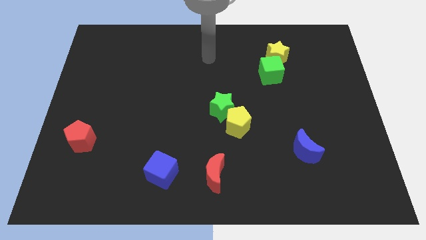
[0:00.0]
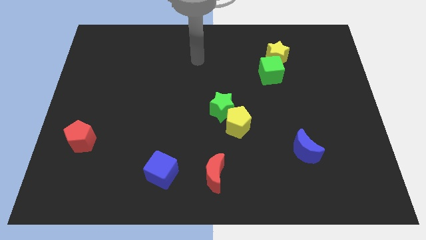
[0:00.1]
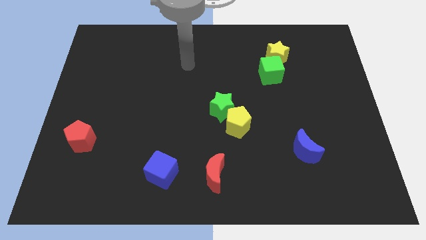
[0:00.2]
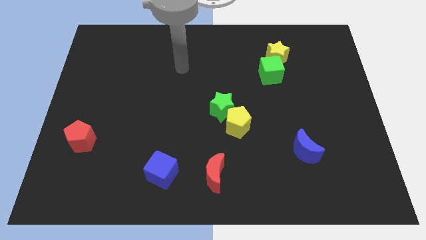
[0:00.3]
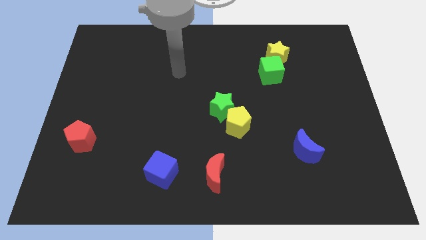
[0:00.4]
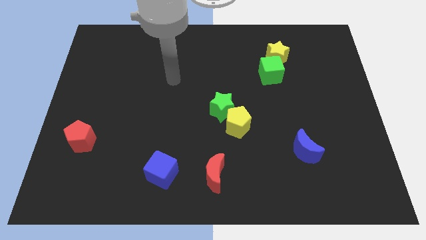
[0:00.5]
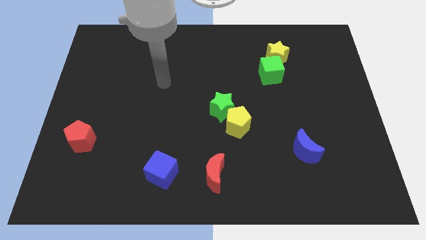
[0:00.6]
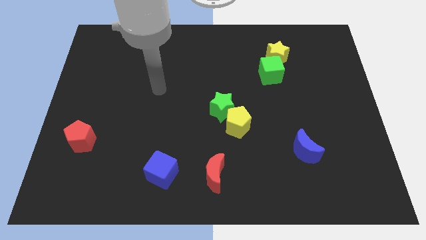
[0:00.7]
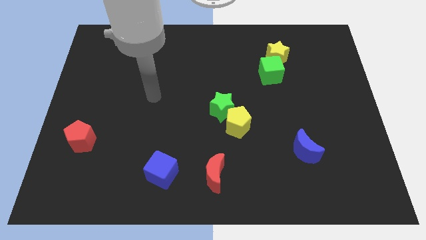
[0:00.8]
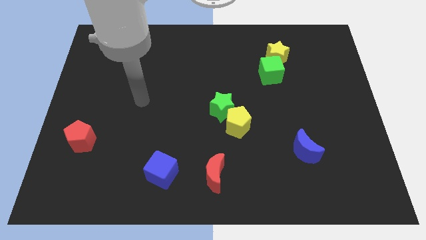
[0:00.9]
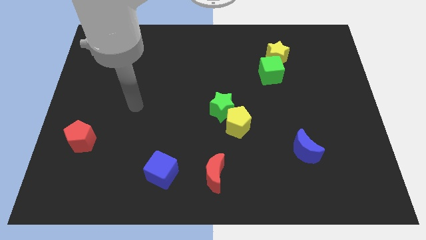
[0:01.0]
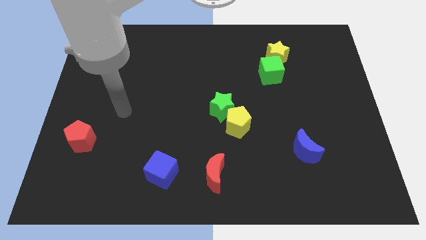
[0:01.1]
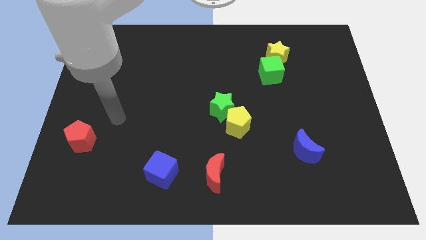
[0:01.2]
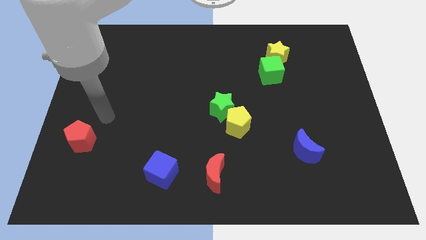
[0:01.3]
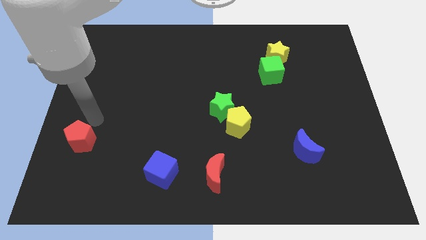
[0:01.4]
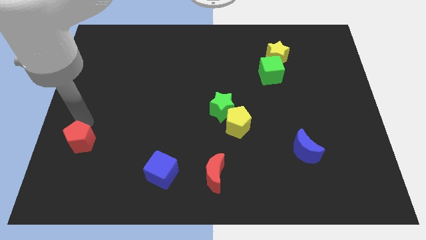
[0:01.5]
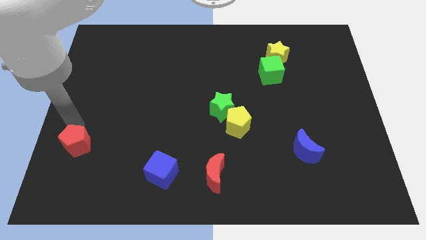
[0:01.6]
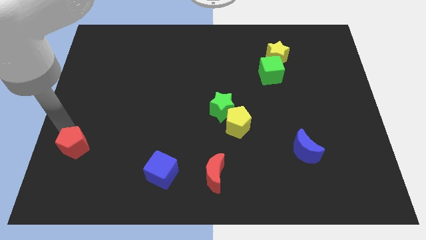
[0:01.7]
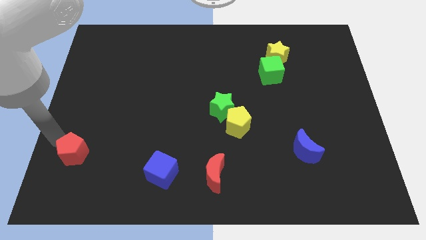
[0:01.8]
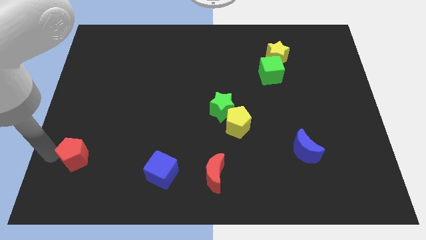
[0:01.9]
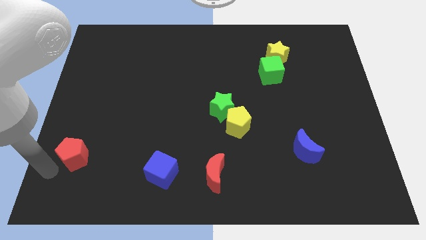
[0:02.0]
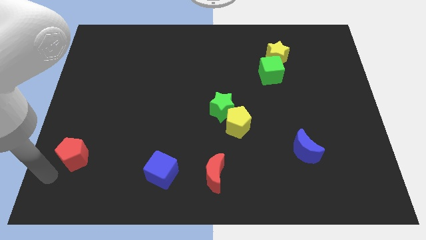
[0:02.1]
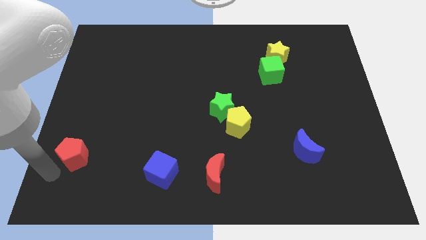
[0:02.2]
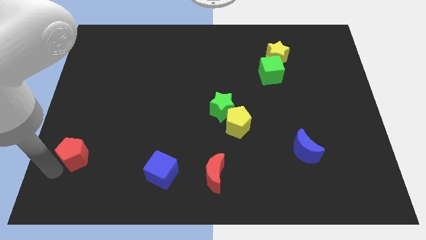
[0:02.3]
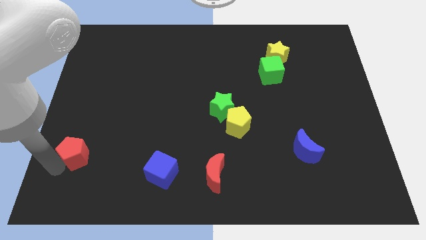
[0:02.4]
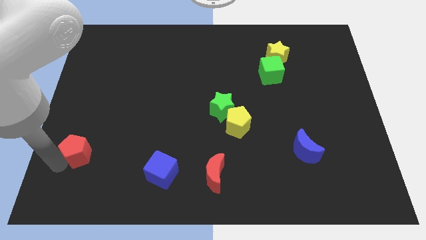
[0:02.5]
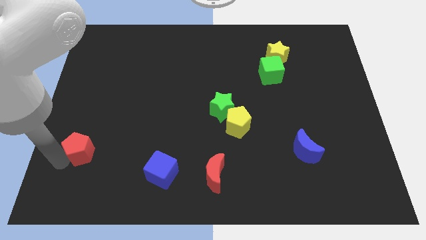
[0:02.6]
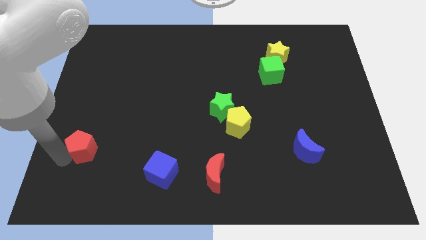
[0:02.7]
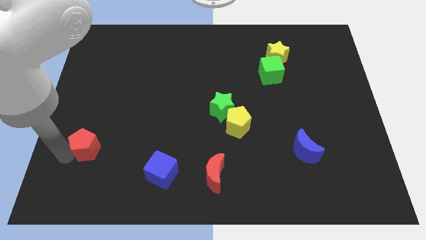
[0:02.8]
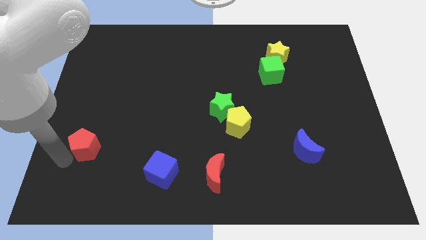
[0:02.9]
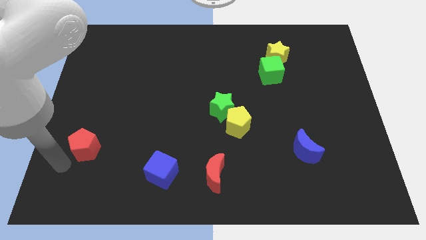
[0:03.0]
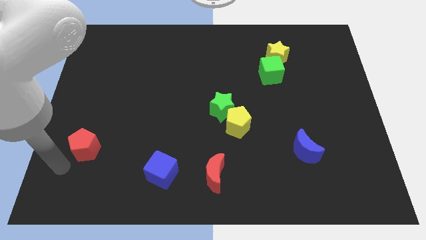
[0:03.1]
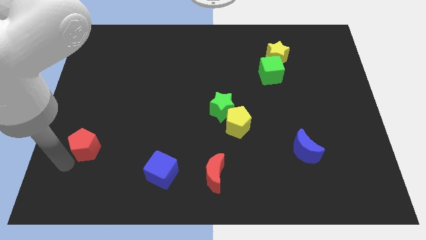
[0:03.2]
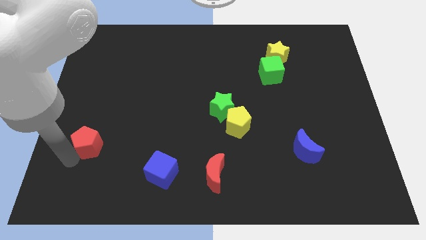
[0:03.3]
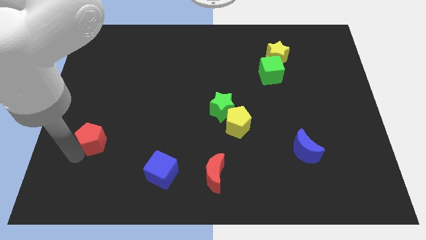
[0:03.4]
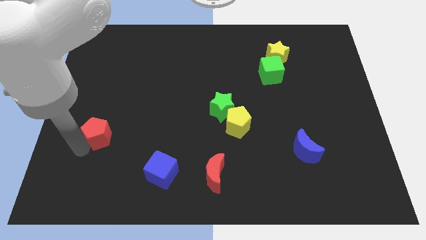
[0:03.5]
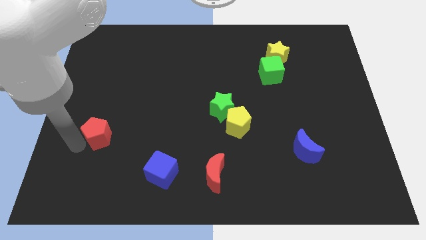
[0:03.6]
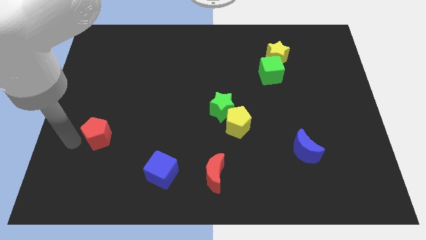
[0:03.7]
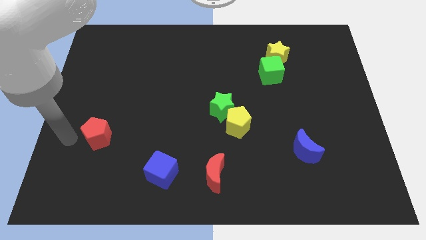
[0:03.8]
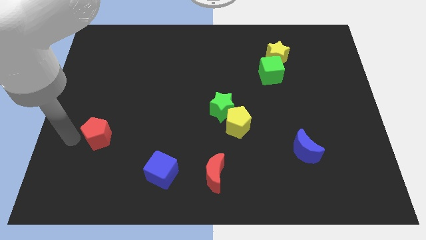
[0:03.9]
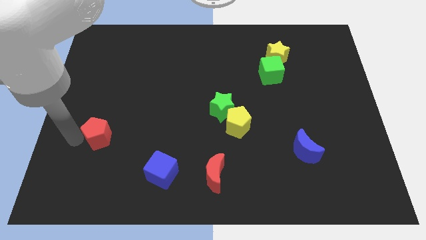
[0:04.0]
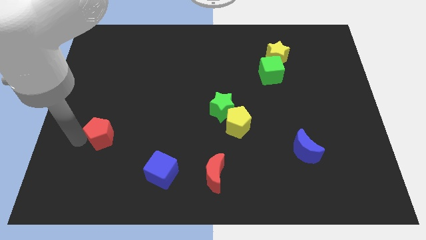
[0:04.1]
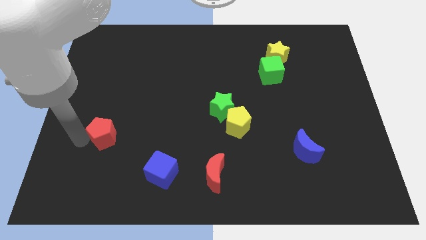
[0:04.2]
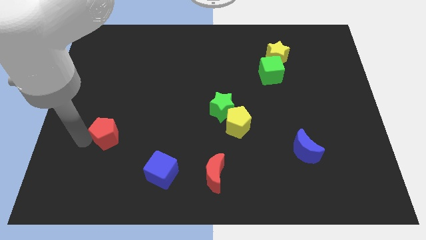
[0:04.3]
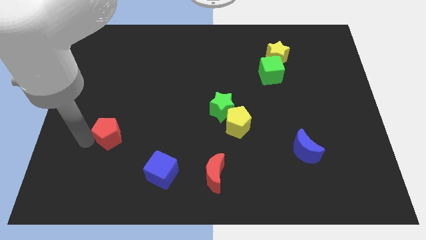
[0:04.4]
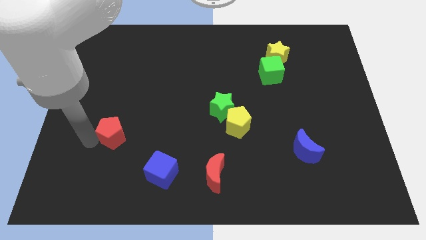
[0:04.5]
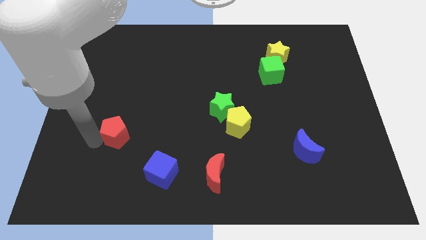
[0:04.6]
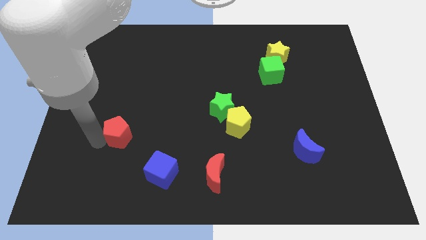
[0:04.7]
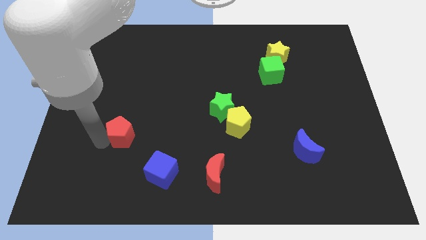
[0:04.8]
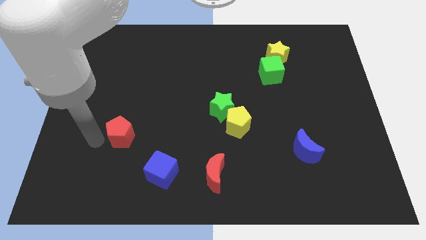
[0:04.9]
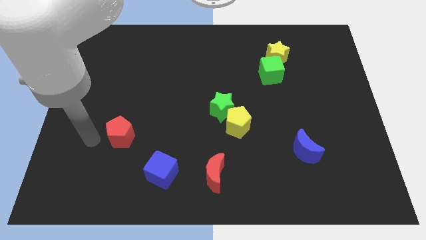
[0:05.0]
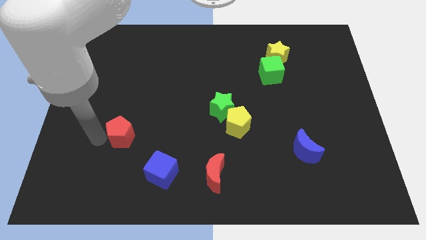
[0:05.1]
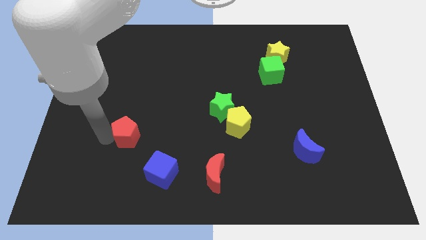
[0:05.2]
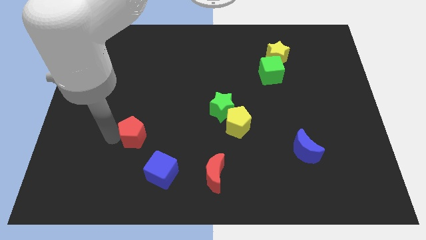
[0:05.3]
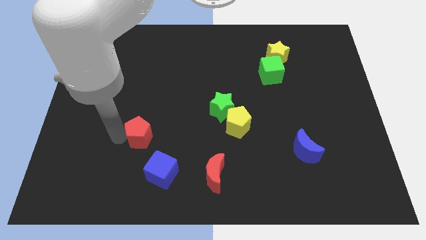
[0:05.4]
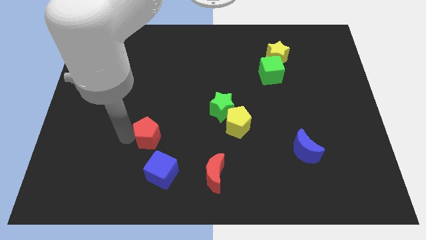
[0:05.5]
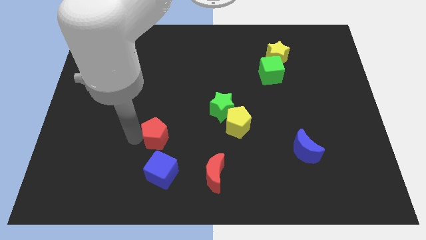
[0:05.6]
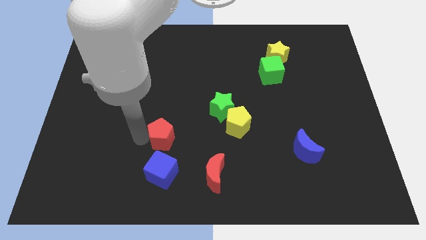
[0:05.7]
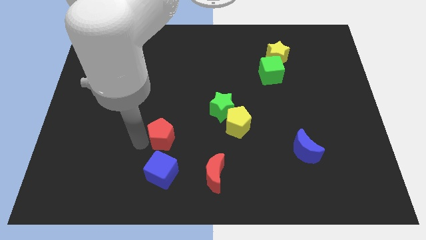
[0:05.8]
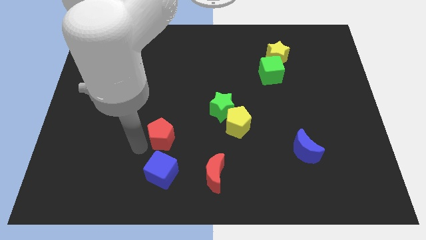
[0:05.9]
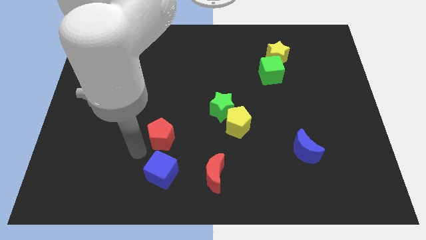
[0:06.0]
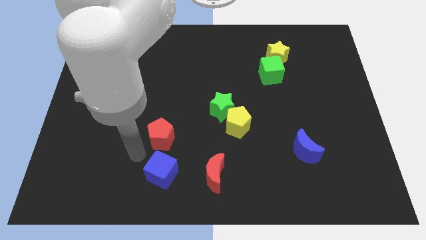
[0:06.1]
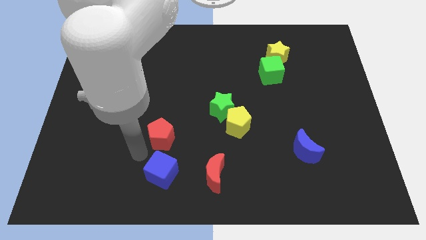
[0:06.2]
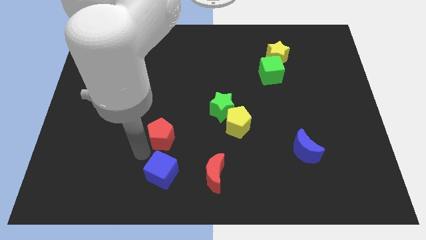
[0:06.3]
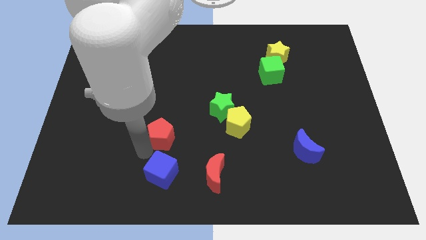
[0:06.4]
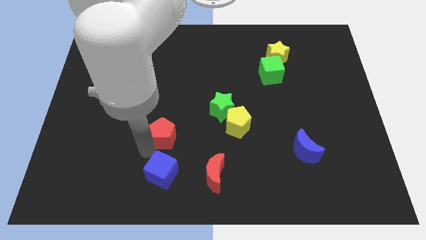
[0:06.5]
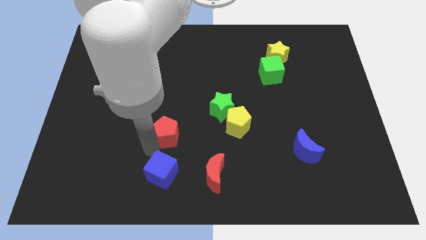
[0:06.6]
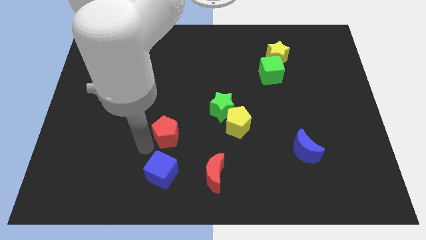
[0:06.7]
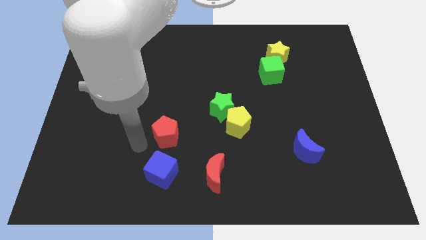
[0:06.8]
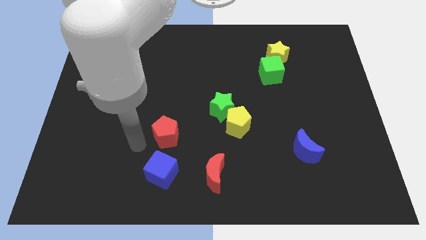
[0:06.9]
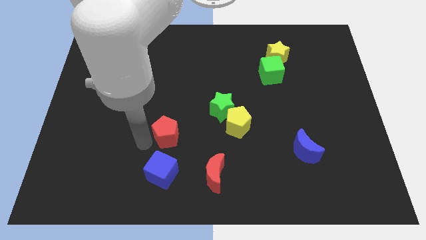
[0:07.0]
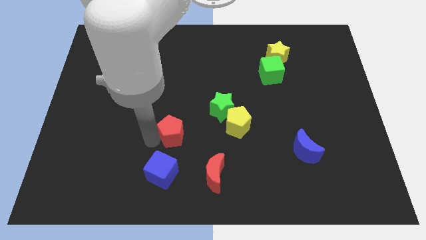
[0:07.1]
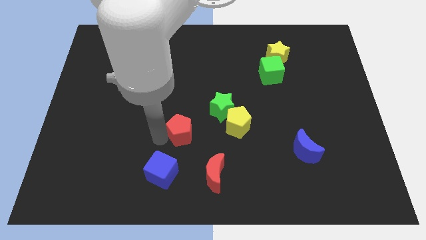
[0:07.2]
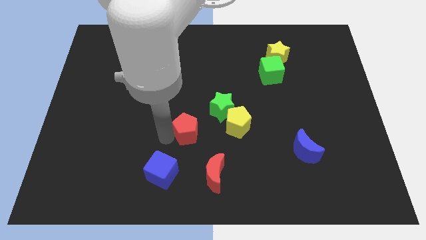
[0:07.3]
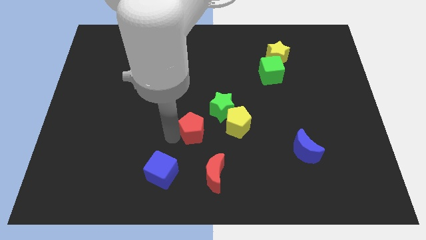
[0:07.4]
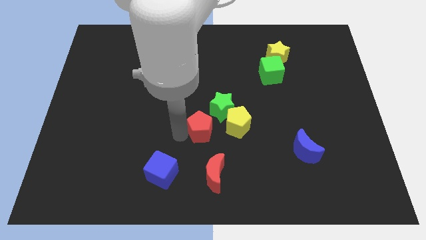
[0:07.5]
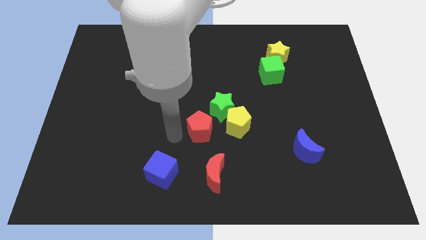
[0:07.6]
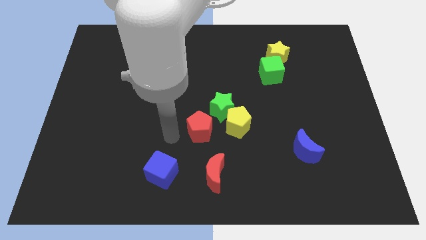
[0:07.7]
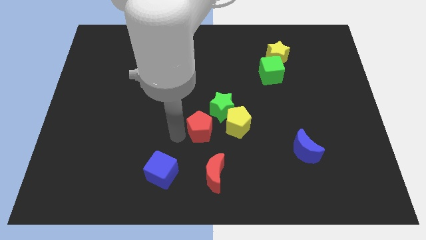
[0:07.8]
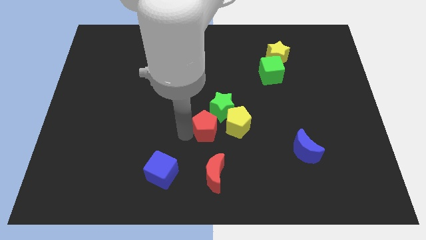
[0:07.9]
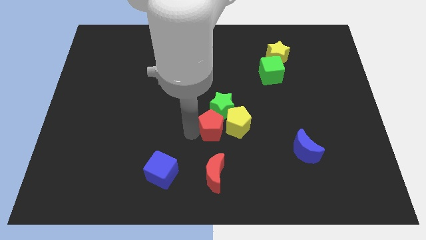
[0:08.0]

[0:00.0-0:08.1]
slide the red pentagon next to the yellow pentagon
